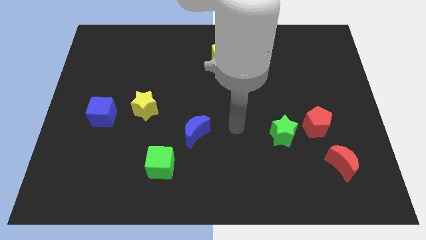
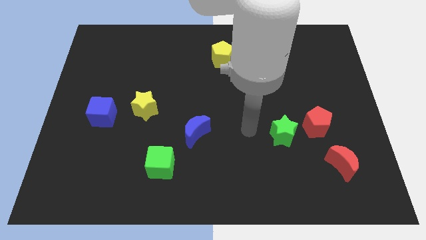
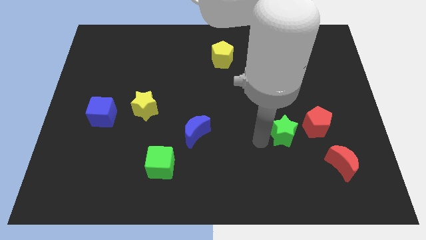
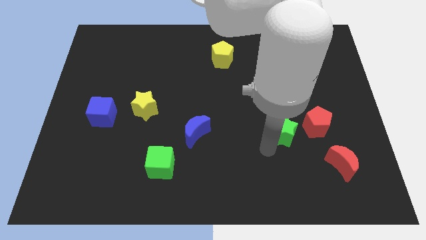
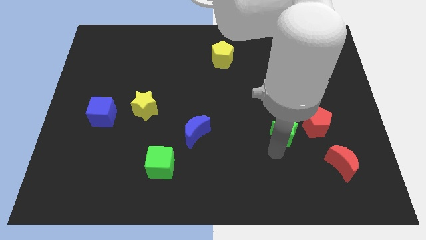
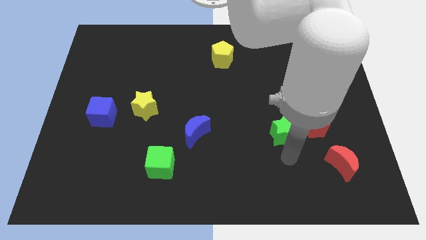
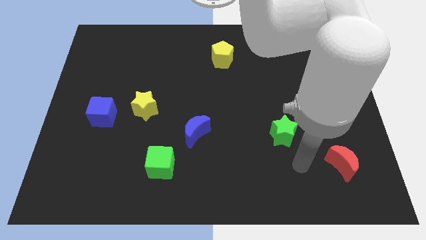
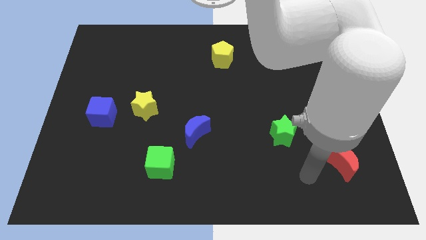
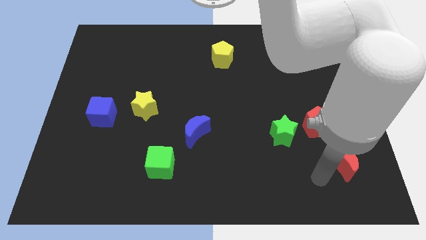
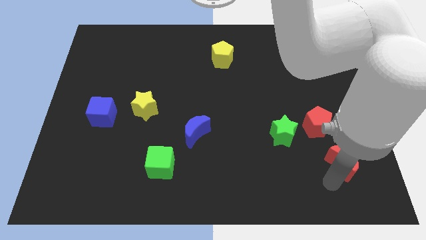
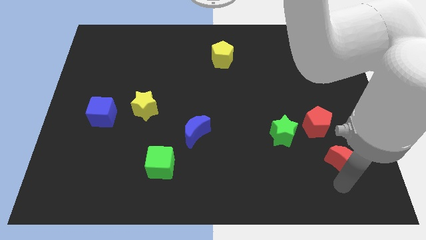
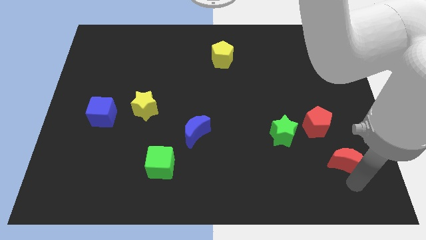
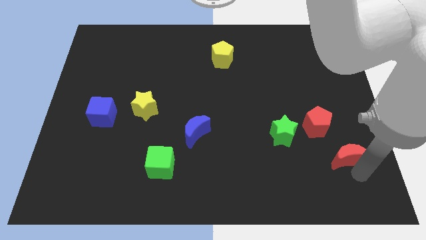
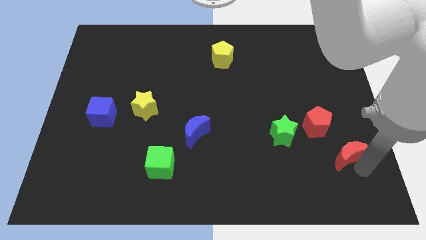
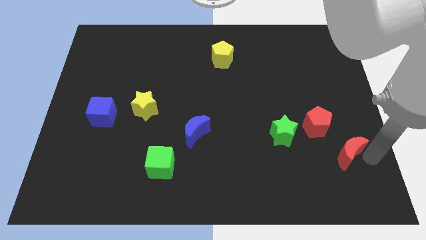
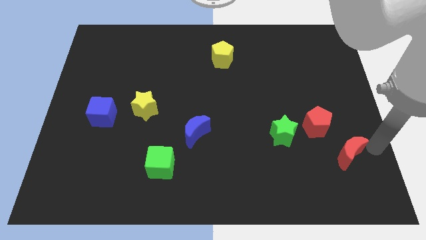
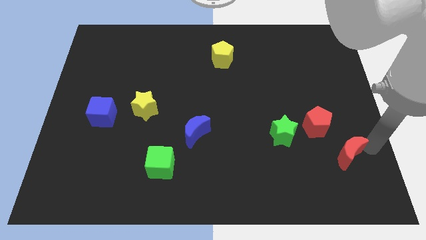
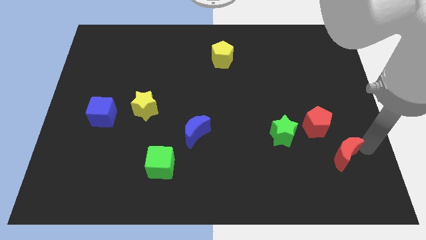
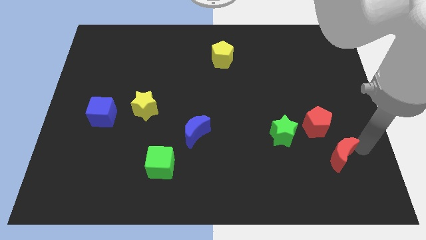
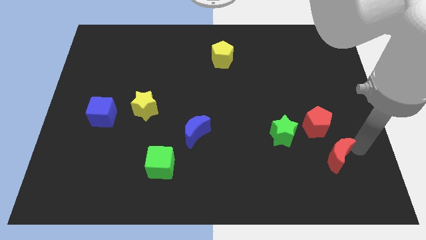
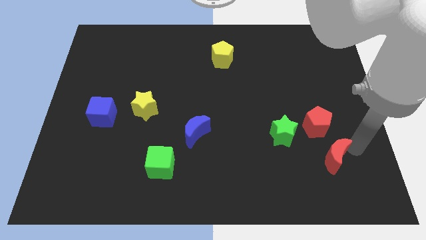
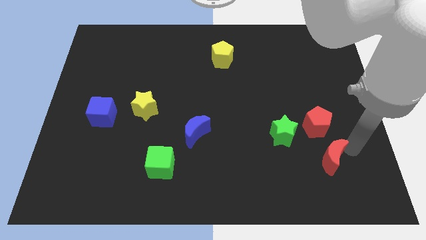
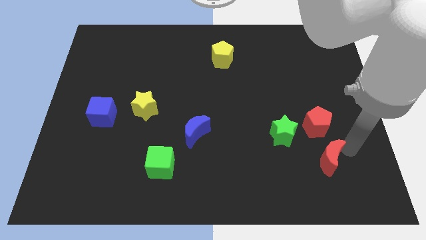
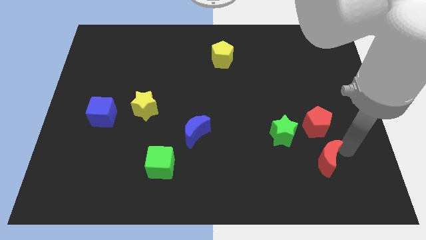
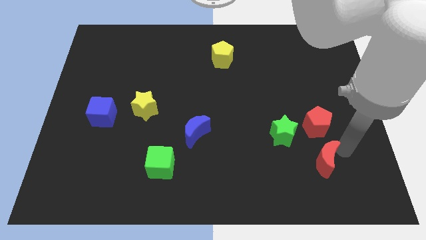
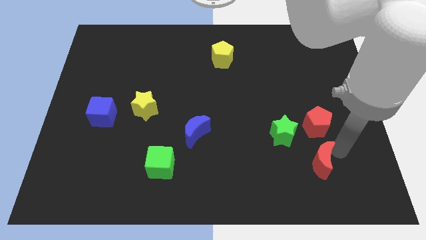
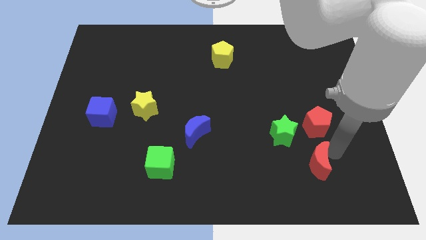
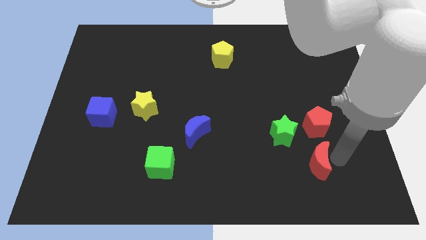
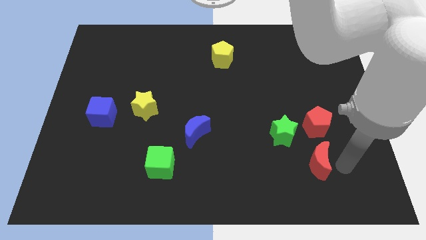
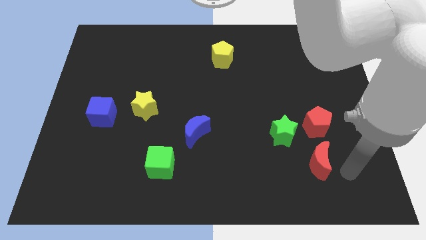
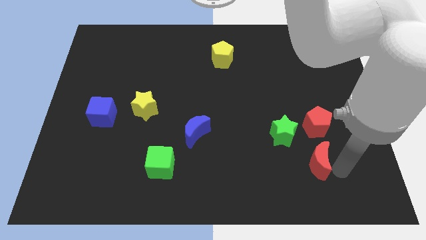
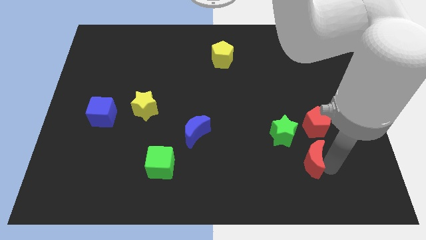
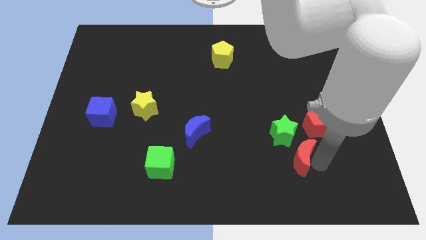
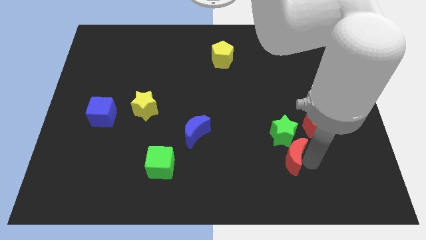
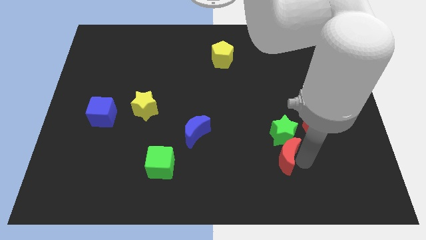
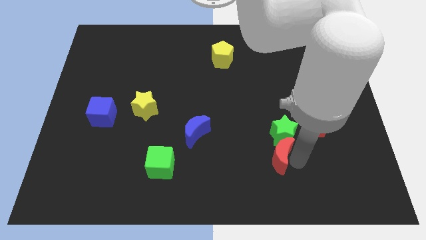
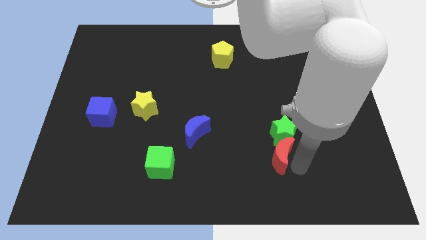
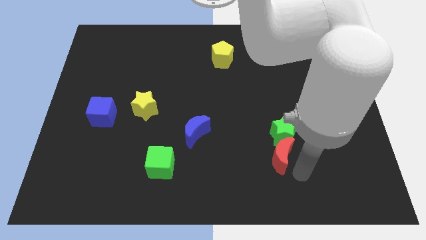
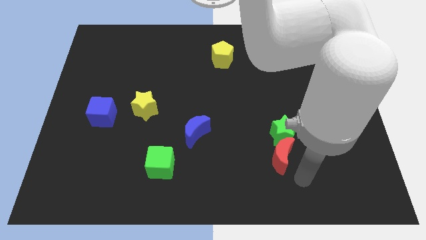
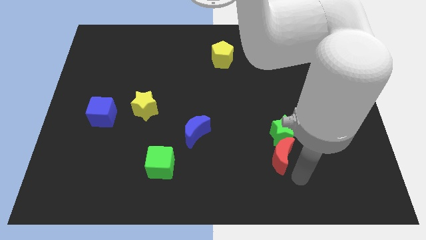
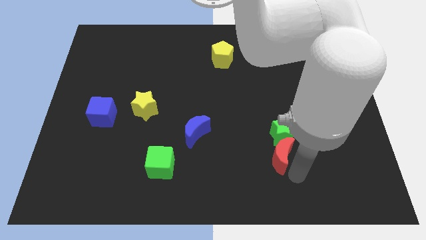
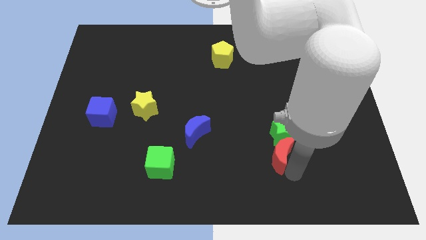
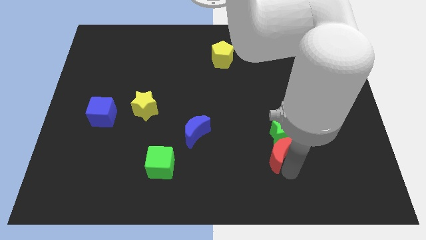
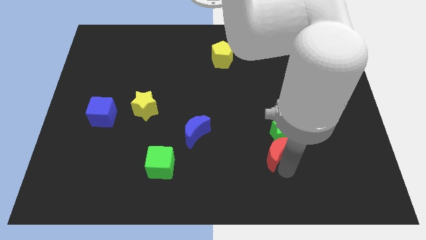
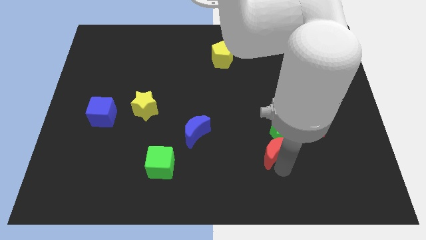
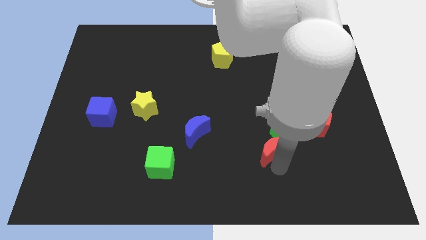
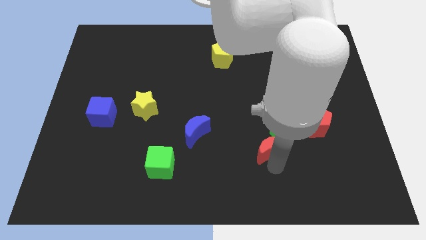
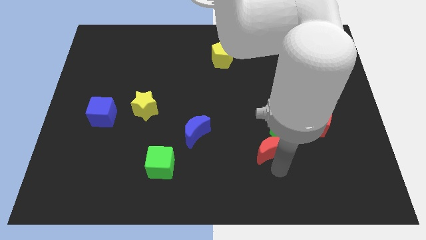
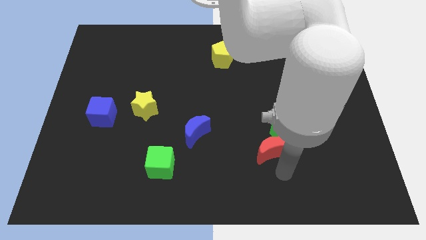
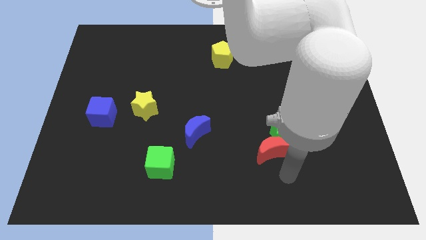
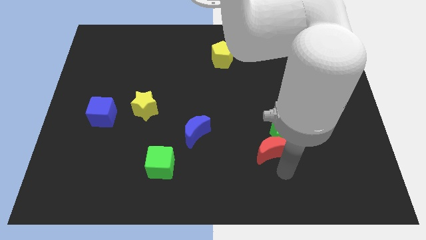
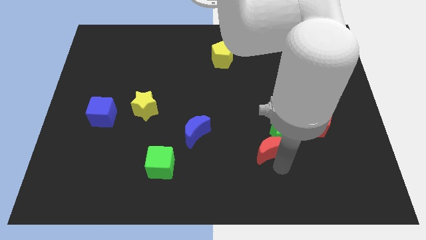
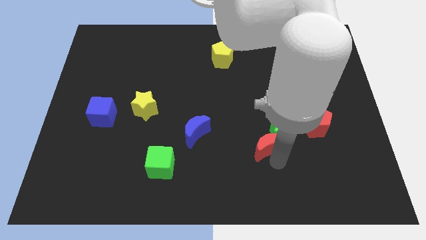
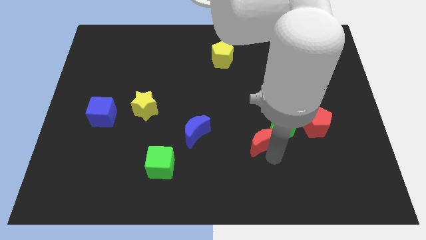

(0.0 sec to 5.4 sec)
put the red moon to the left side of the red pentagon

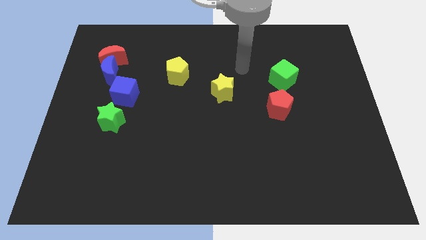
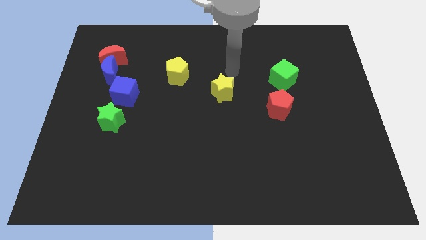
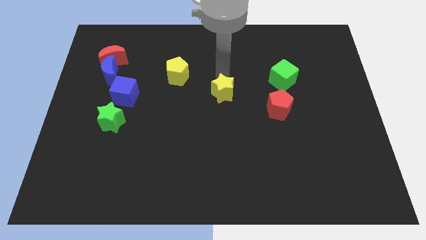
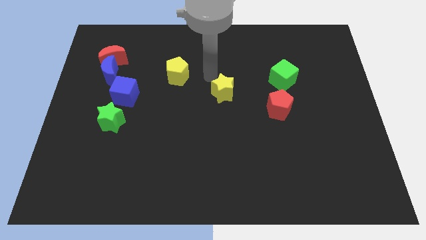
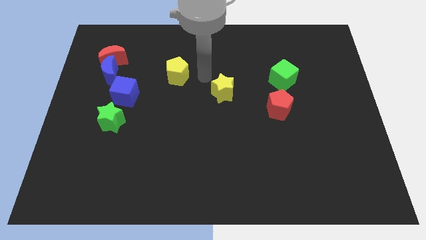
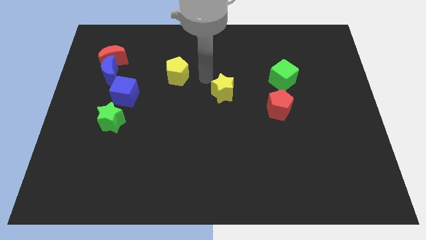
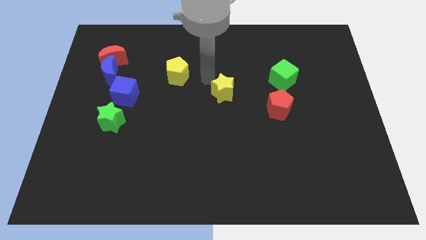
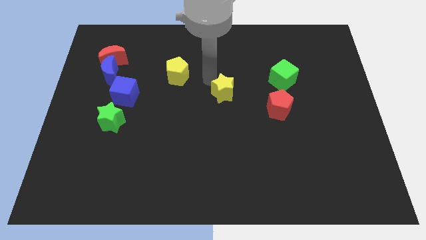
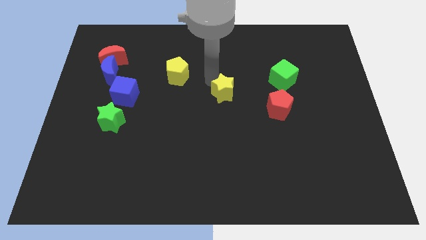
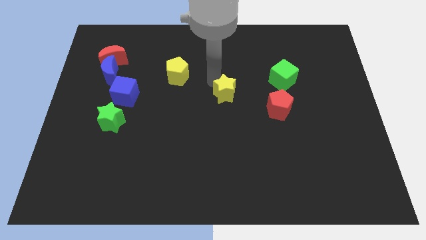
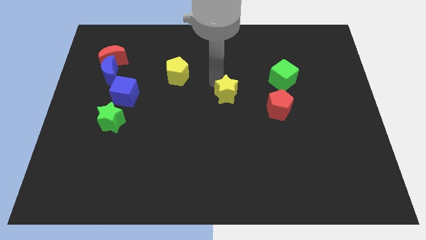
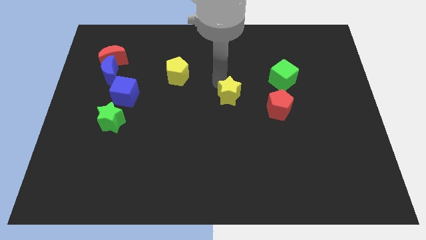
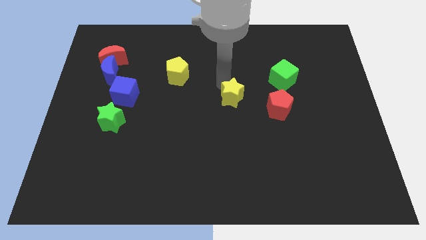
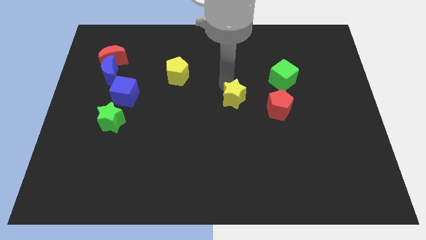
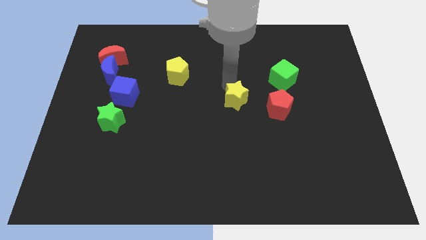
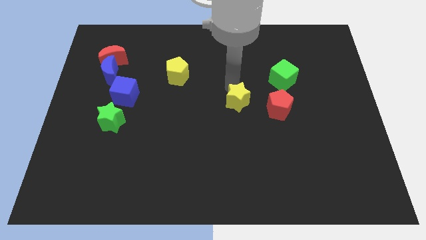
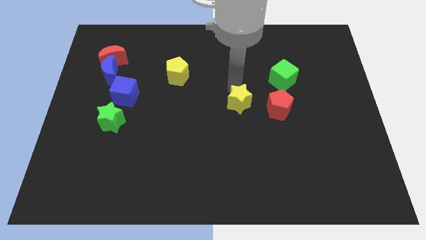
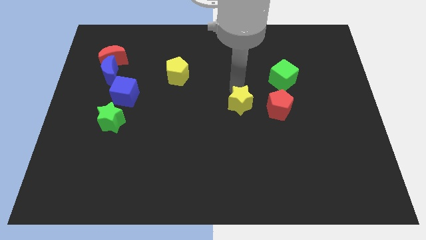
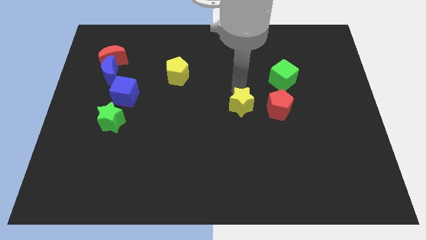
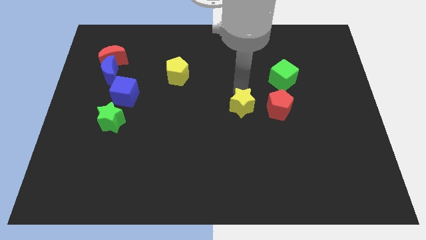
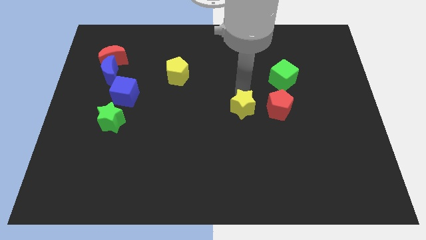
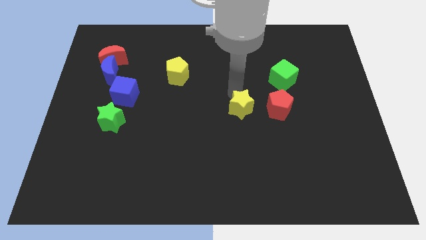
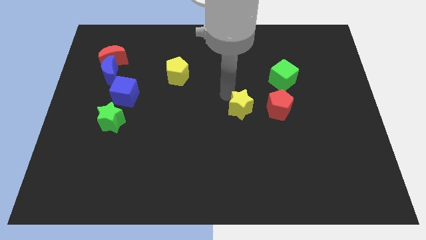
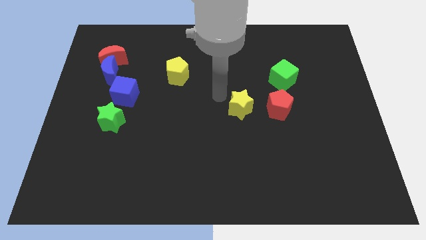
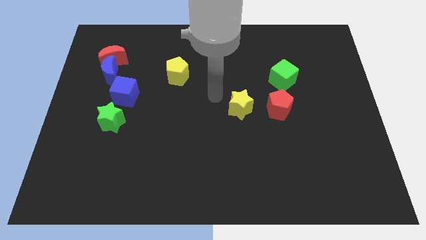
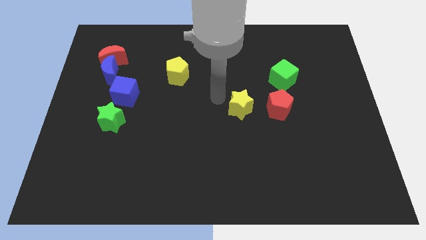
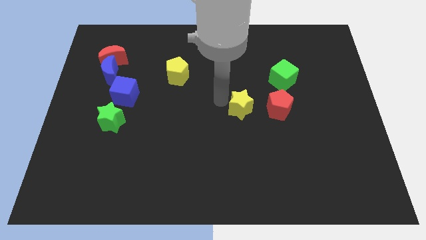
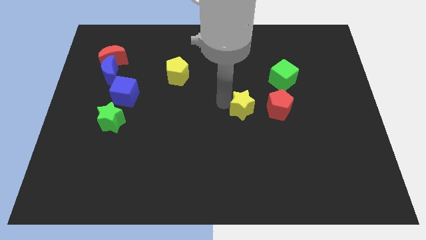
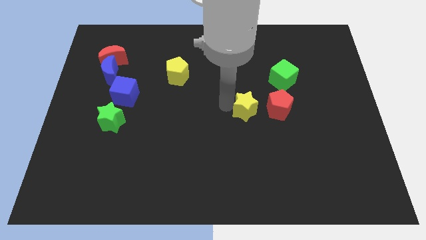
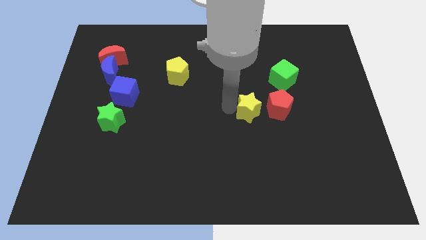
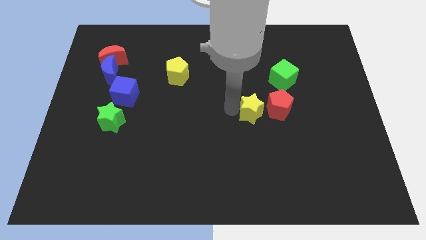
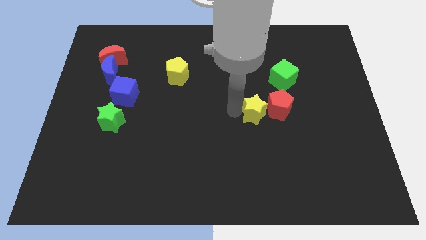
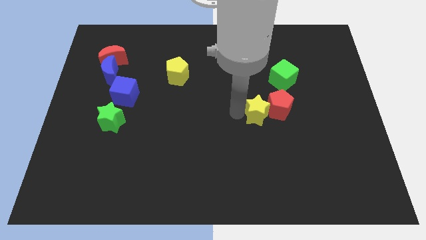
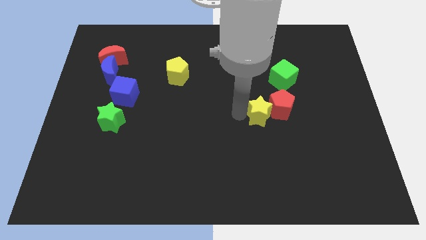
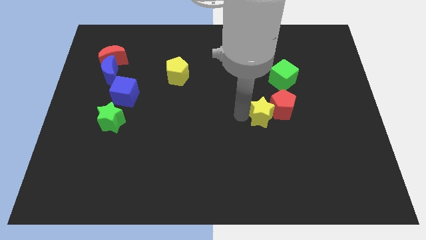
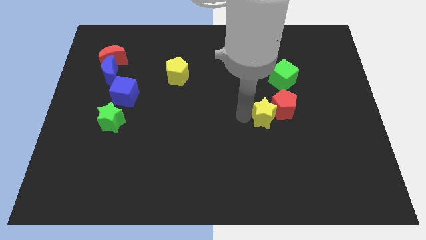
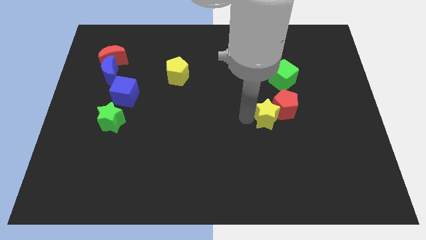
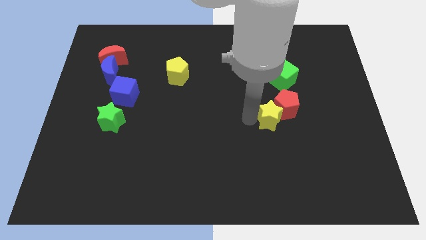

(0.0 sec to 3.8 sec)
move the yellow star to the bottom of the green cube
